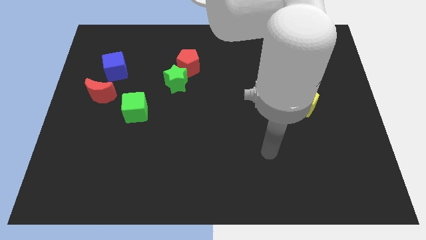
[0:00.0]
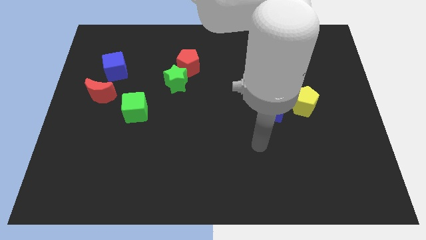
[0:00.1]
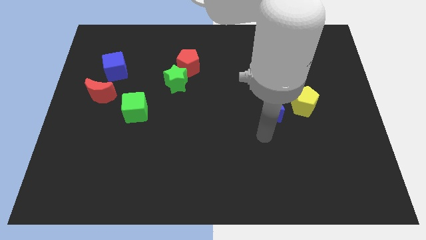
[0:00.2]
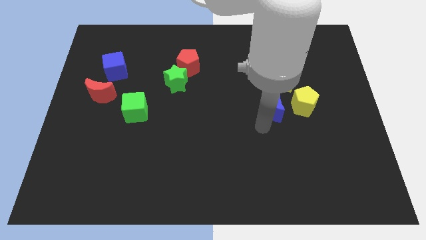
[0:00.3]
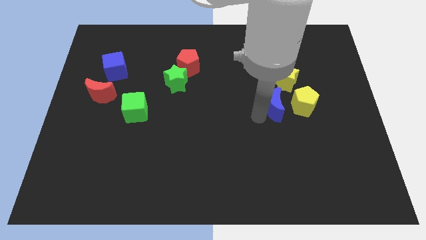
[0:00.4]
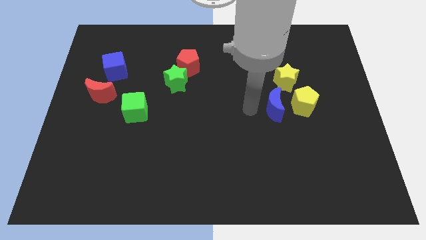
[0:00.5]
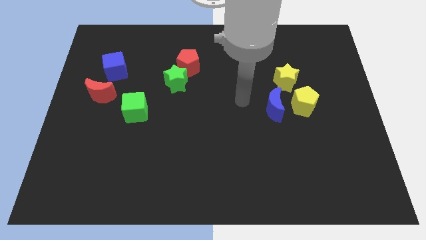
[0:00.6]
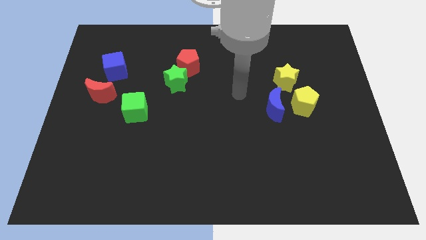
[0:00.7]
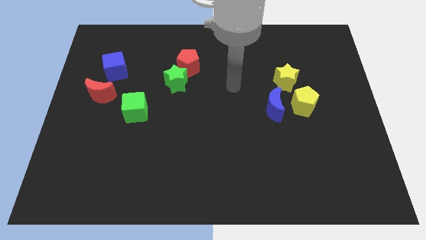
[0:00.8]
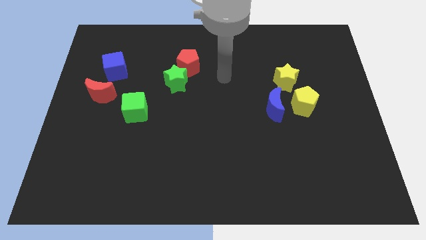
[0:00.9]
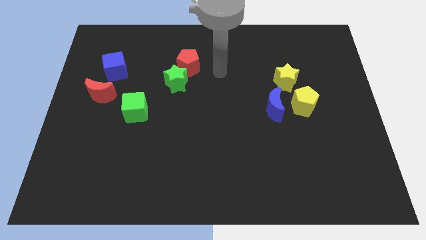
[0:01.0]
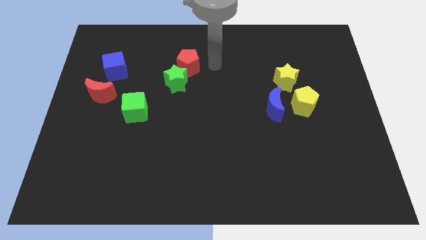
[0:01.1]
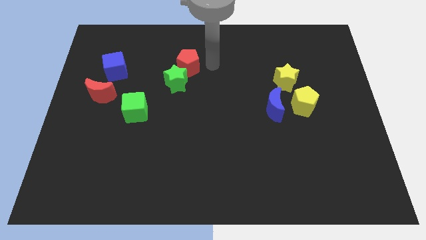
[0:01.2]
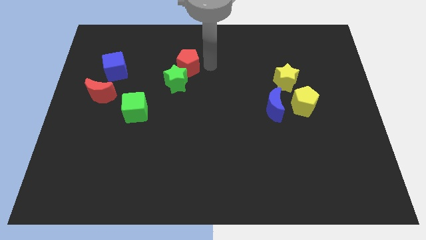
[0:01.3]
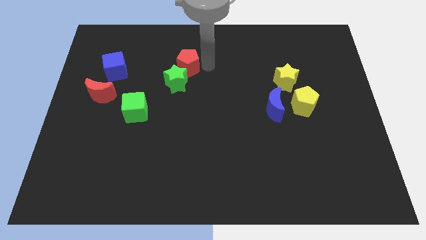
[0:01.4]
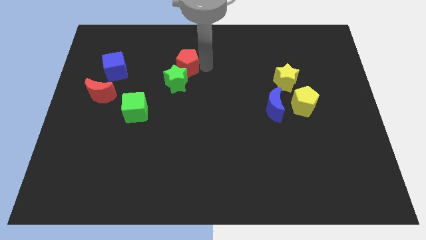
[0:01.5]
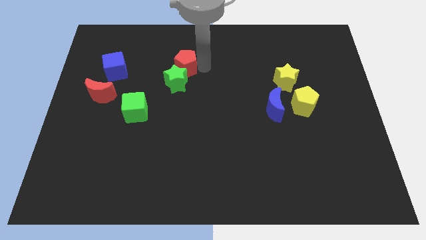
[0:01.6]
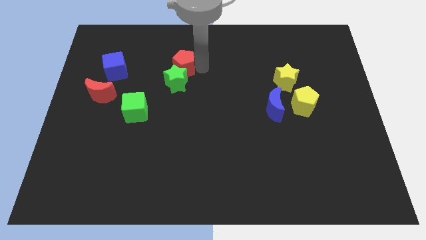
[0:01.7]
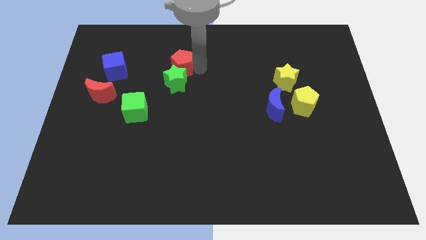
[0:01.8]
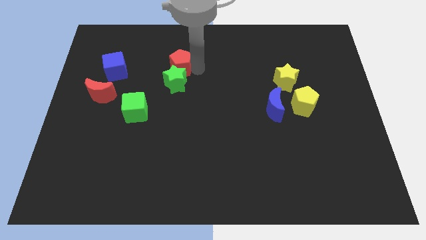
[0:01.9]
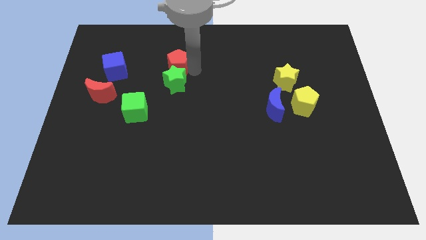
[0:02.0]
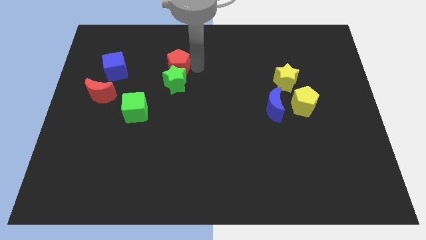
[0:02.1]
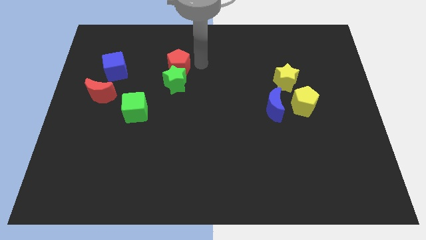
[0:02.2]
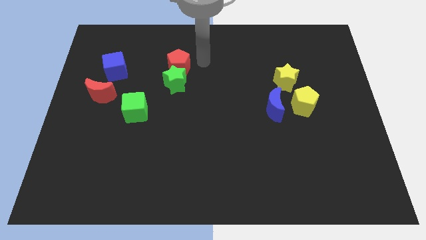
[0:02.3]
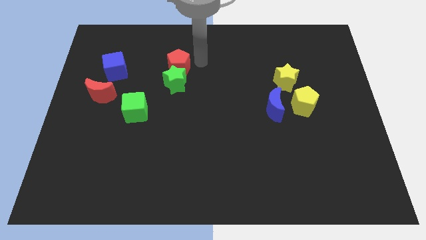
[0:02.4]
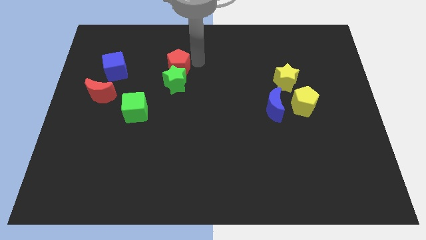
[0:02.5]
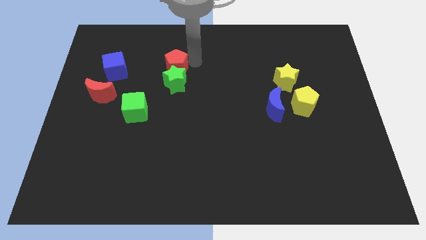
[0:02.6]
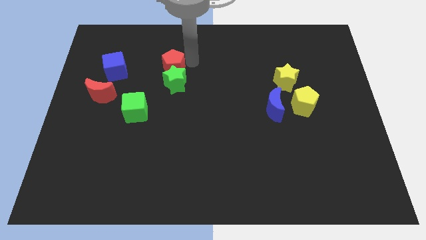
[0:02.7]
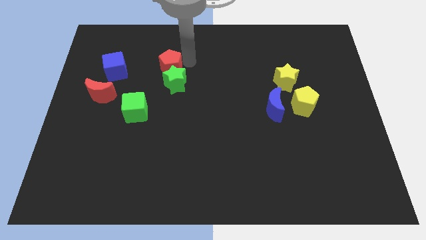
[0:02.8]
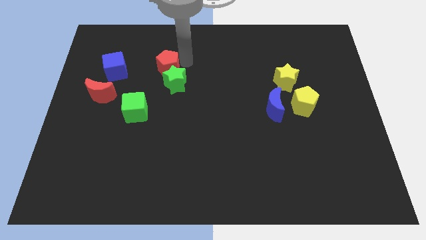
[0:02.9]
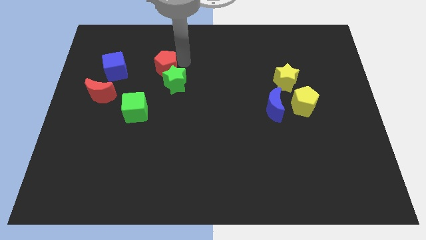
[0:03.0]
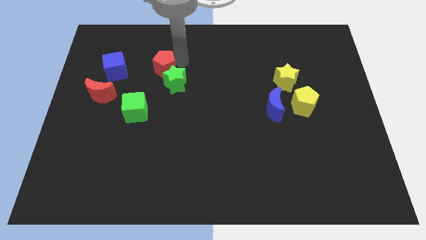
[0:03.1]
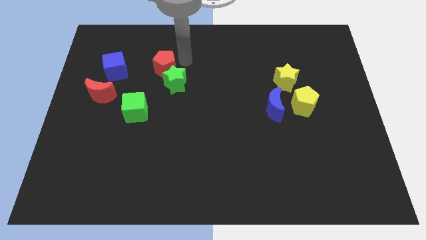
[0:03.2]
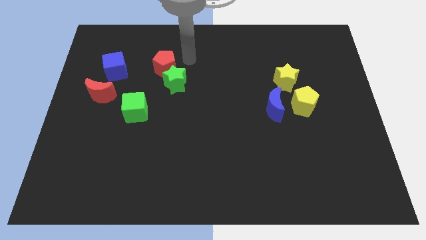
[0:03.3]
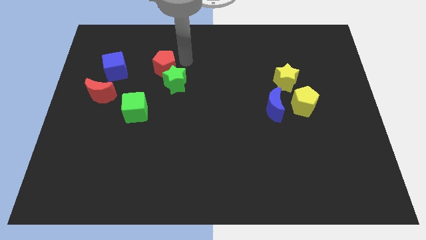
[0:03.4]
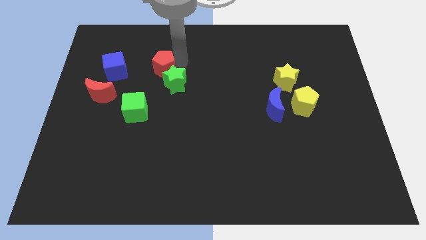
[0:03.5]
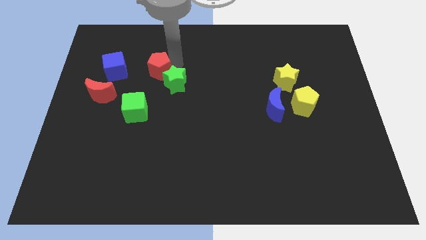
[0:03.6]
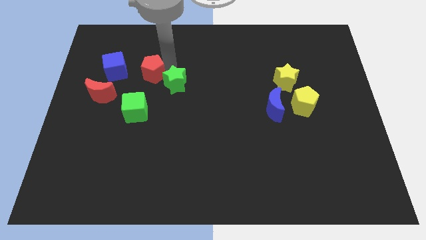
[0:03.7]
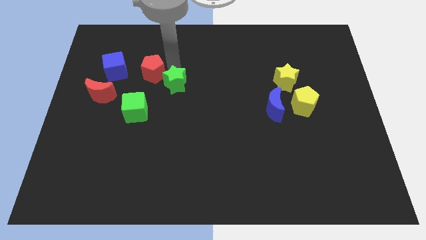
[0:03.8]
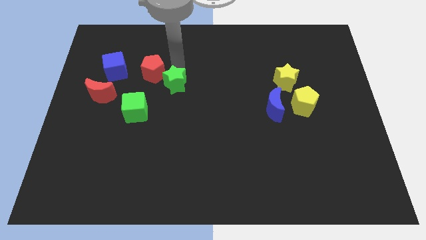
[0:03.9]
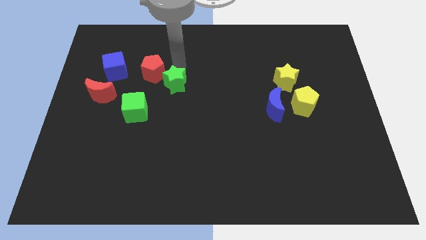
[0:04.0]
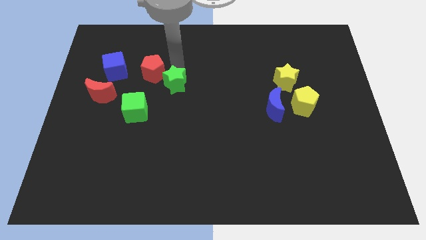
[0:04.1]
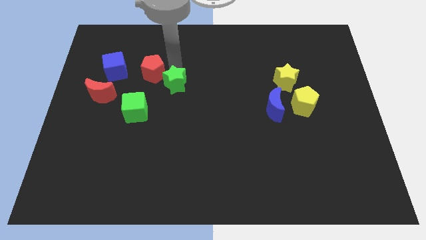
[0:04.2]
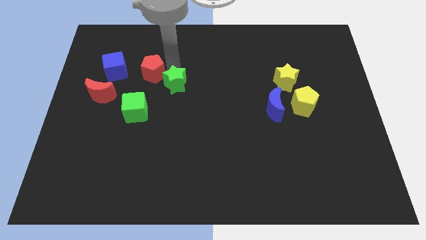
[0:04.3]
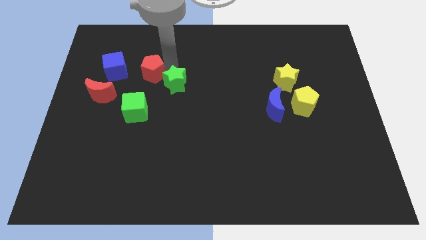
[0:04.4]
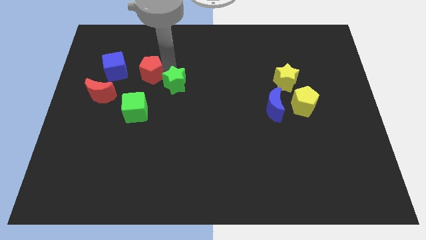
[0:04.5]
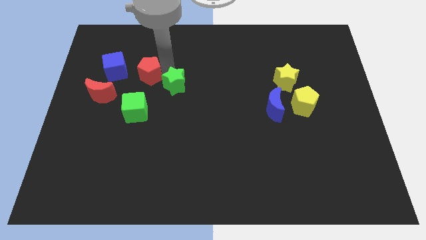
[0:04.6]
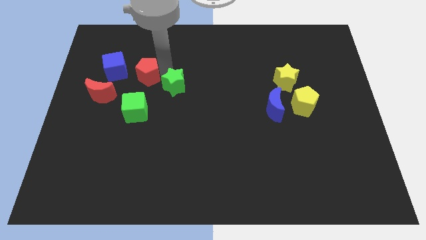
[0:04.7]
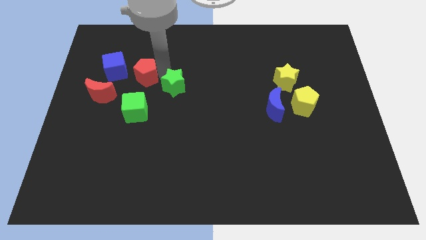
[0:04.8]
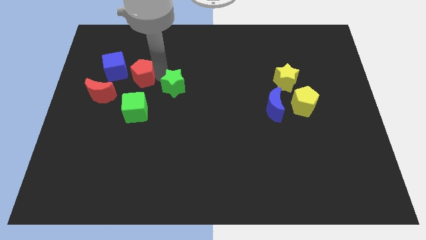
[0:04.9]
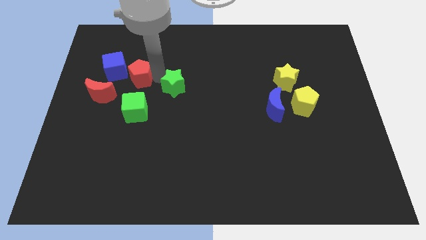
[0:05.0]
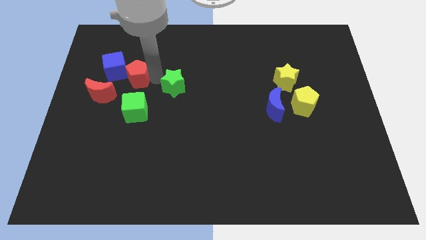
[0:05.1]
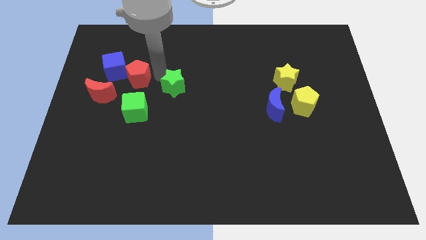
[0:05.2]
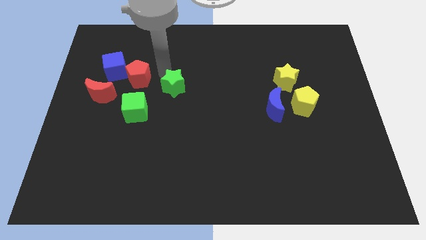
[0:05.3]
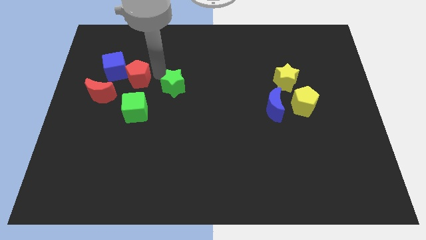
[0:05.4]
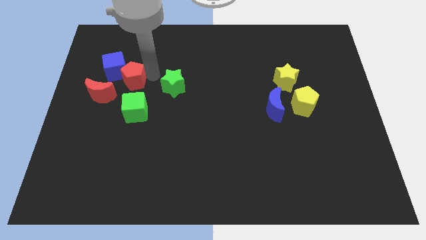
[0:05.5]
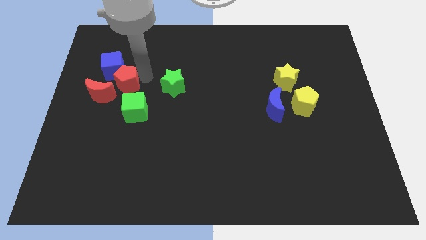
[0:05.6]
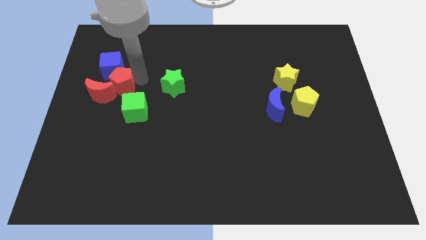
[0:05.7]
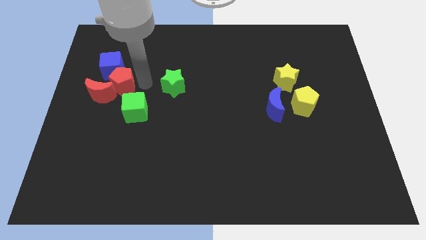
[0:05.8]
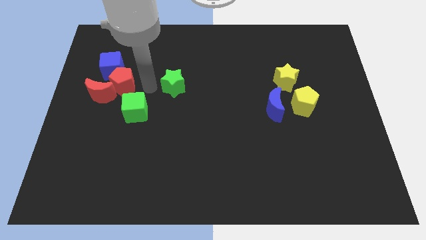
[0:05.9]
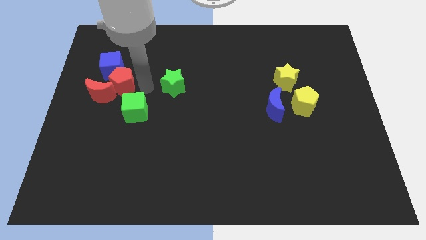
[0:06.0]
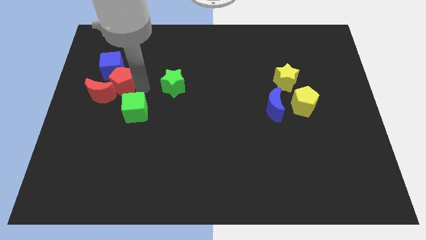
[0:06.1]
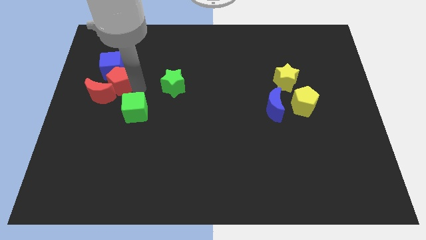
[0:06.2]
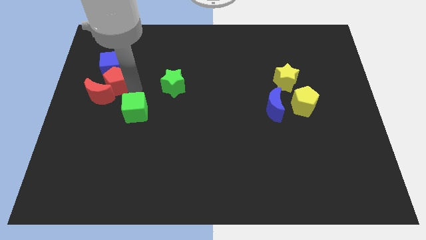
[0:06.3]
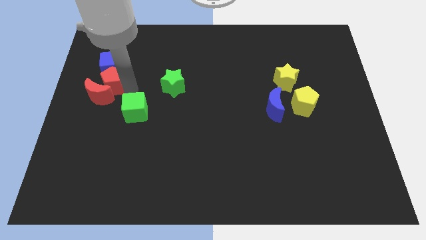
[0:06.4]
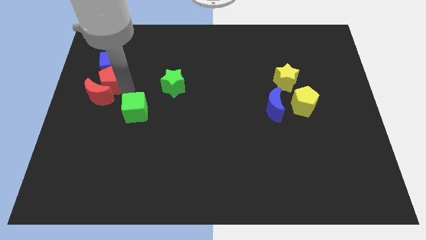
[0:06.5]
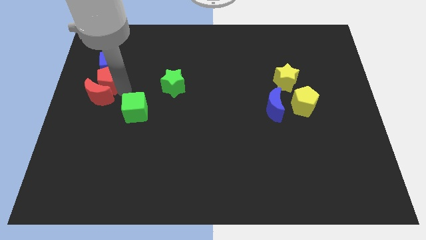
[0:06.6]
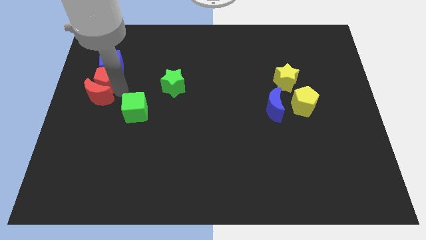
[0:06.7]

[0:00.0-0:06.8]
put the red pentagon to the left side of the board
